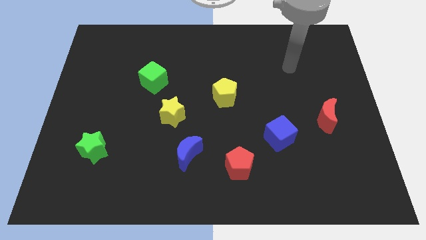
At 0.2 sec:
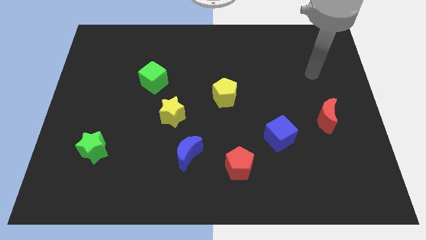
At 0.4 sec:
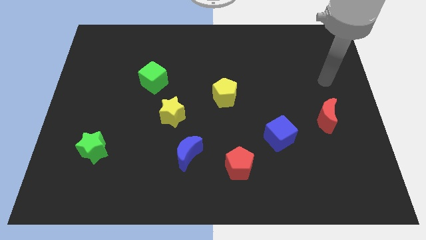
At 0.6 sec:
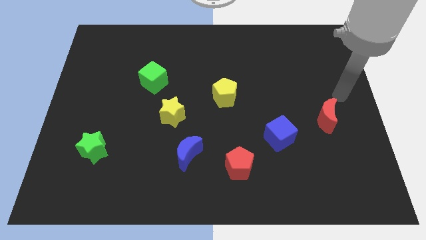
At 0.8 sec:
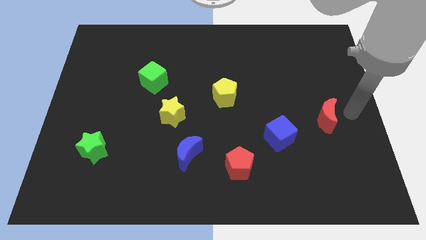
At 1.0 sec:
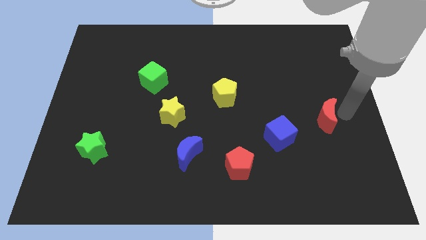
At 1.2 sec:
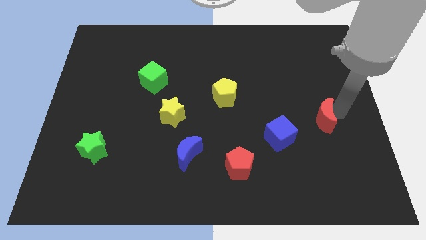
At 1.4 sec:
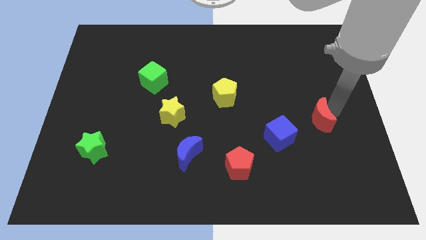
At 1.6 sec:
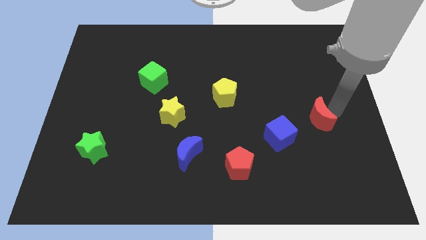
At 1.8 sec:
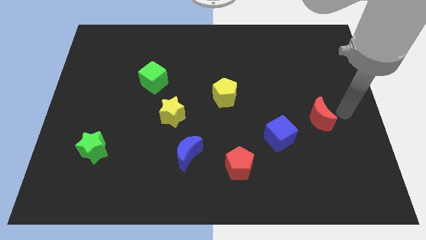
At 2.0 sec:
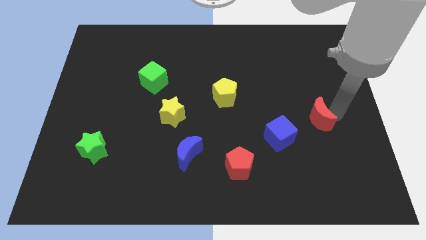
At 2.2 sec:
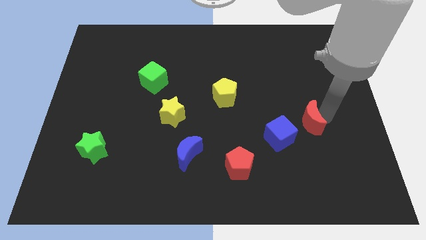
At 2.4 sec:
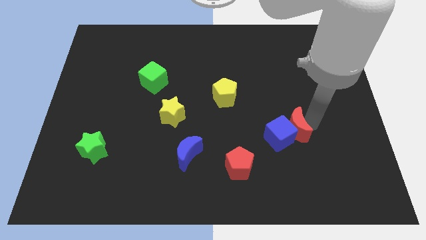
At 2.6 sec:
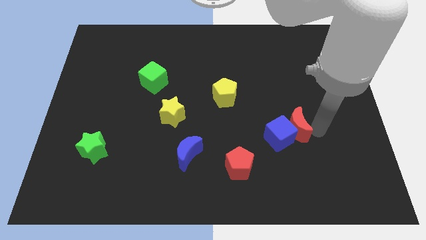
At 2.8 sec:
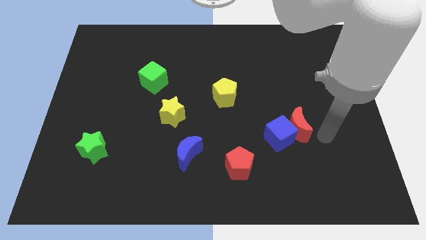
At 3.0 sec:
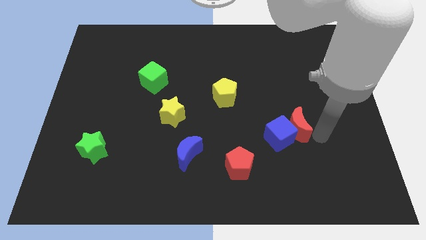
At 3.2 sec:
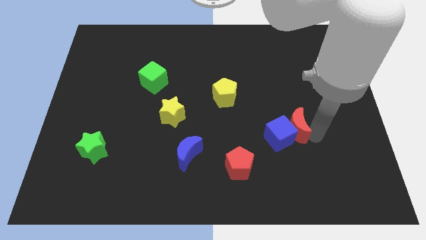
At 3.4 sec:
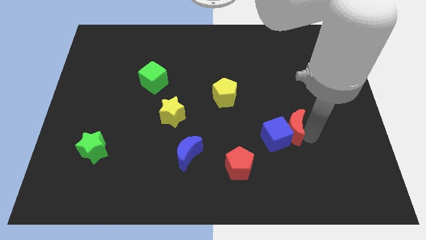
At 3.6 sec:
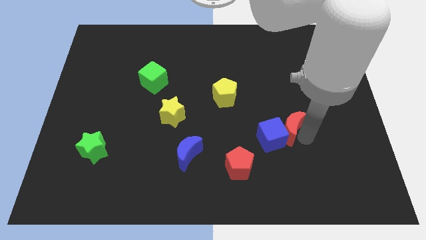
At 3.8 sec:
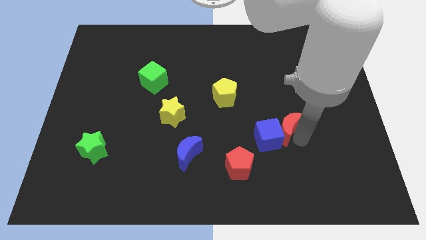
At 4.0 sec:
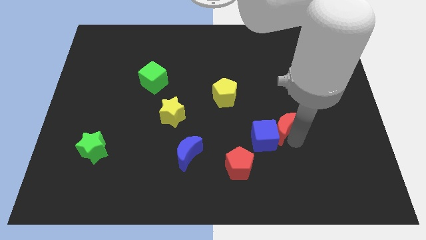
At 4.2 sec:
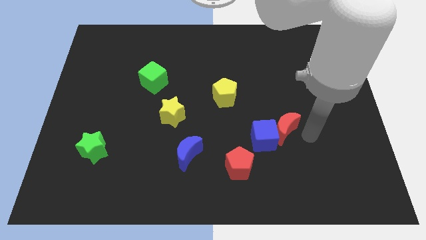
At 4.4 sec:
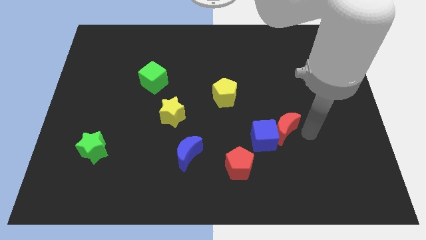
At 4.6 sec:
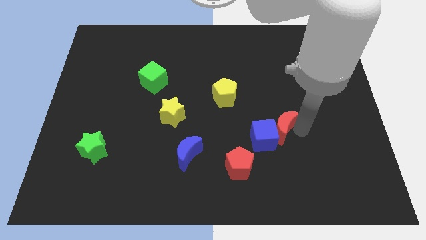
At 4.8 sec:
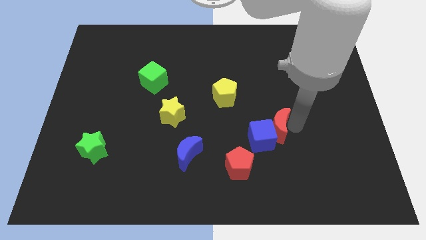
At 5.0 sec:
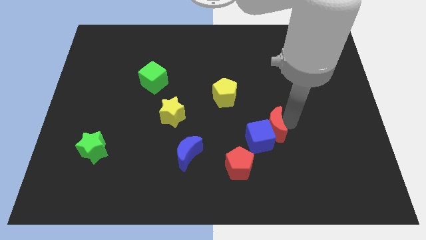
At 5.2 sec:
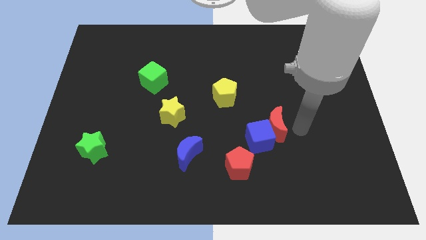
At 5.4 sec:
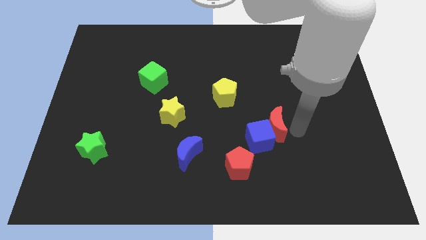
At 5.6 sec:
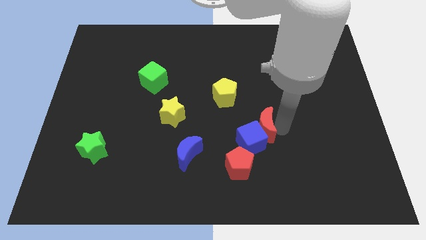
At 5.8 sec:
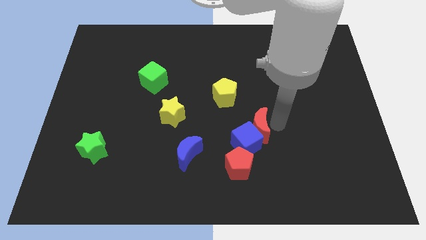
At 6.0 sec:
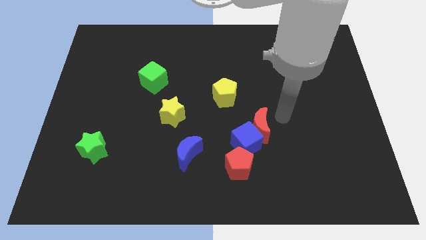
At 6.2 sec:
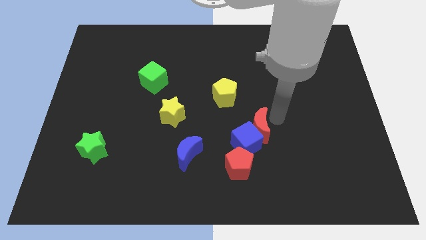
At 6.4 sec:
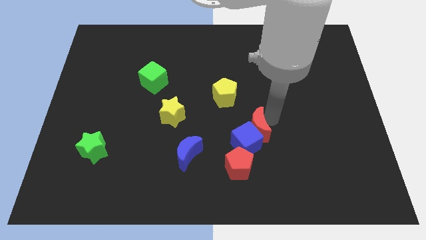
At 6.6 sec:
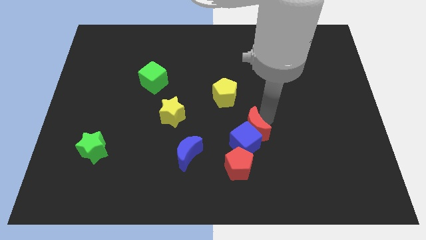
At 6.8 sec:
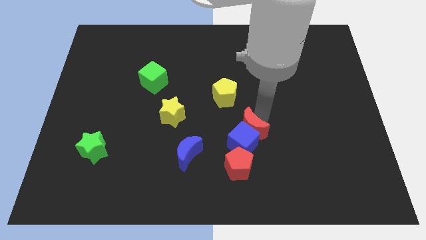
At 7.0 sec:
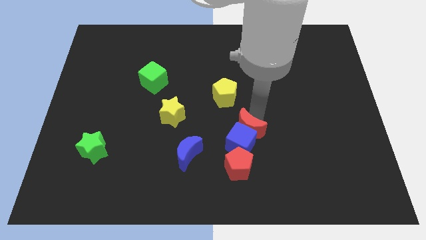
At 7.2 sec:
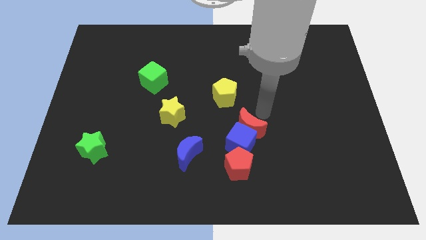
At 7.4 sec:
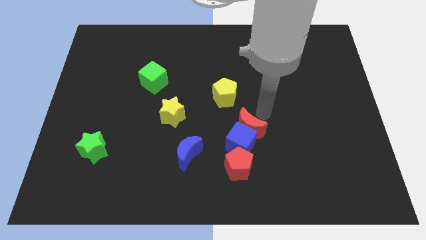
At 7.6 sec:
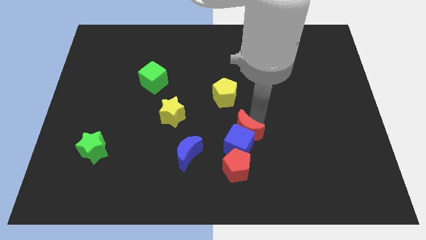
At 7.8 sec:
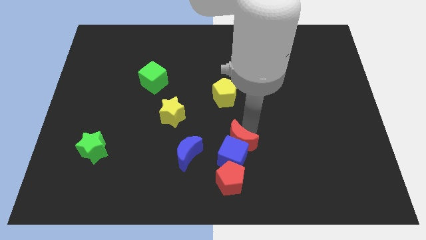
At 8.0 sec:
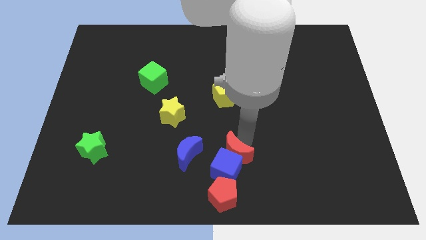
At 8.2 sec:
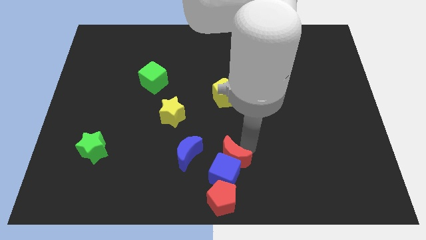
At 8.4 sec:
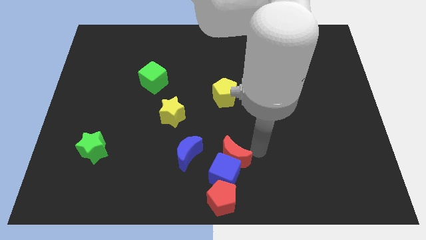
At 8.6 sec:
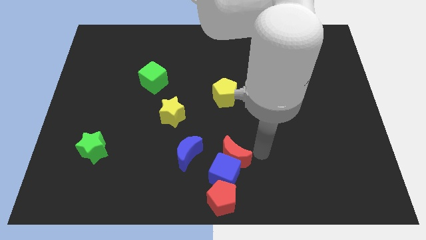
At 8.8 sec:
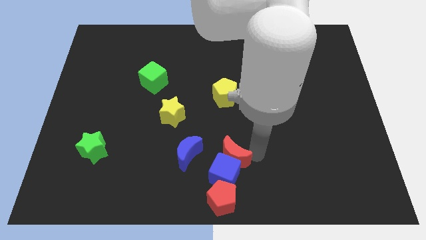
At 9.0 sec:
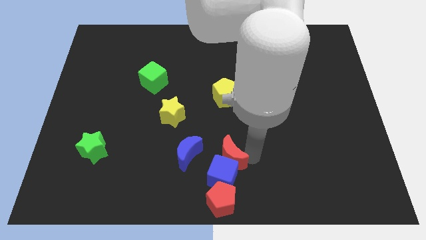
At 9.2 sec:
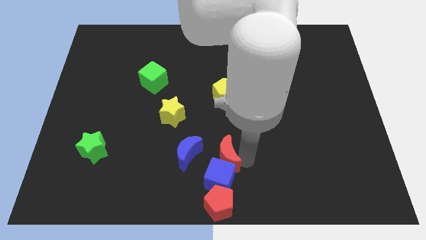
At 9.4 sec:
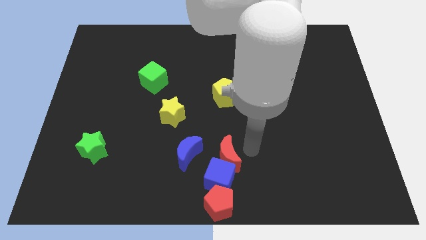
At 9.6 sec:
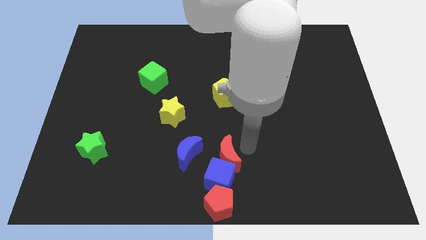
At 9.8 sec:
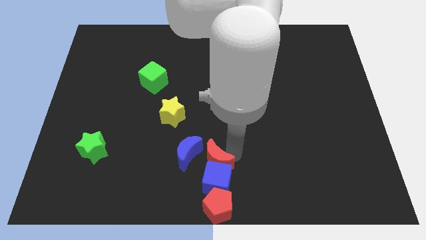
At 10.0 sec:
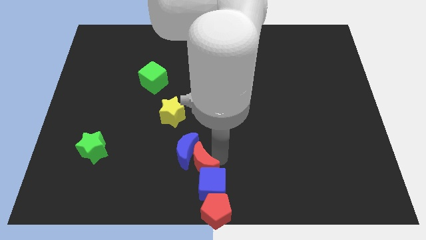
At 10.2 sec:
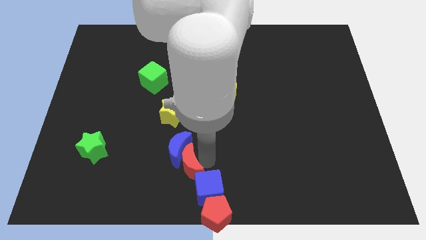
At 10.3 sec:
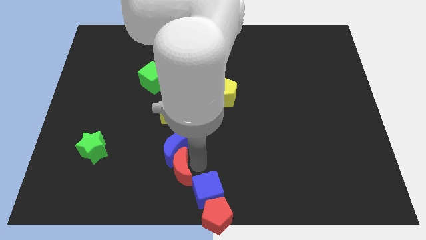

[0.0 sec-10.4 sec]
push the red moon to the bottom left side of the blue moon

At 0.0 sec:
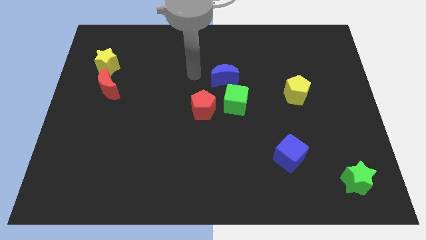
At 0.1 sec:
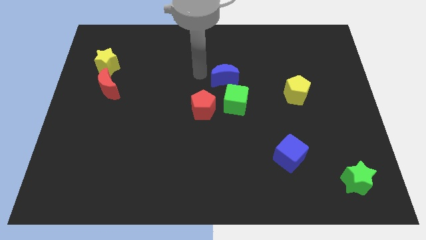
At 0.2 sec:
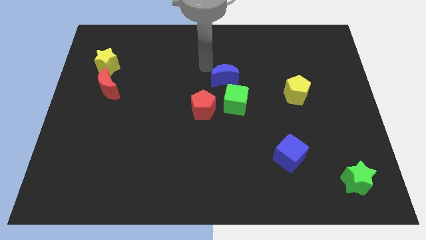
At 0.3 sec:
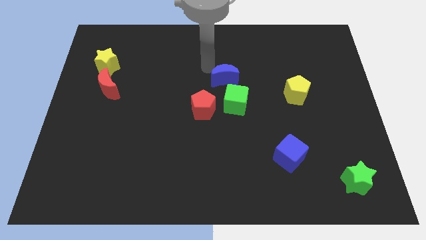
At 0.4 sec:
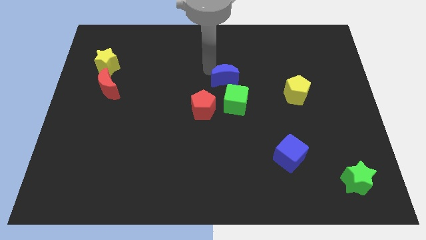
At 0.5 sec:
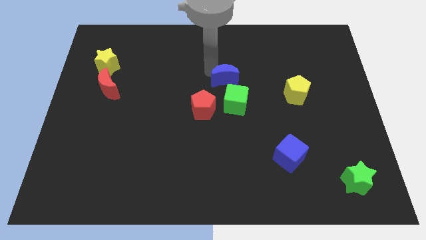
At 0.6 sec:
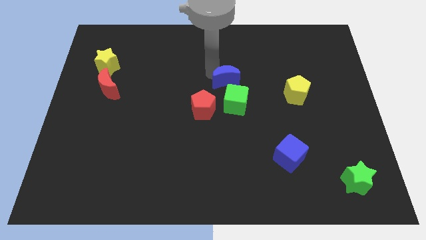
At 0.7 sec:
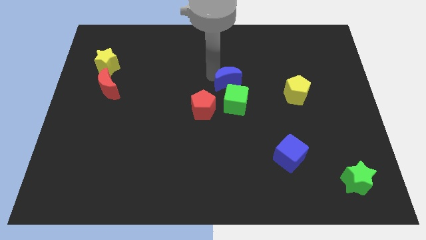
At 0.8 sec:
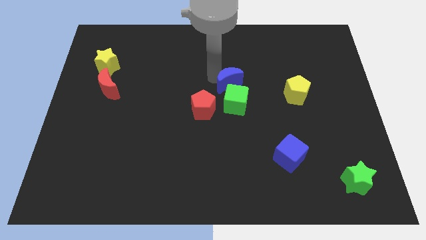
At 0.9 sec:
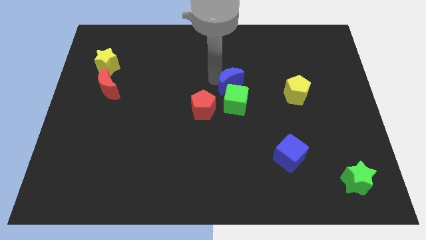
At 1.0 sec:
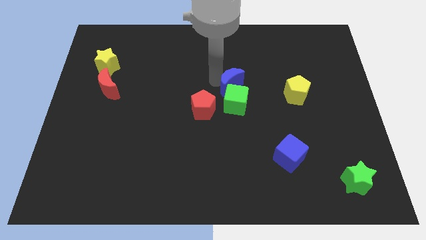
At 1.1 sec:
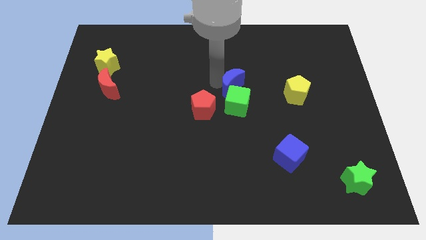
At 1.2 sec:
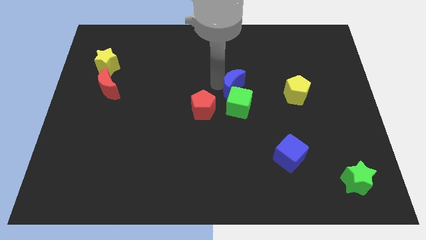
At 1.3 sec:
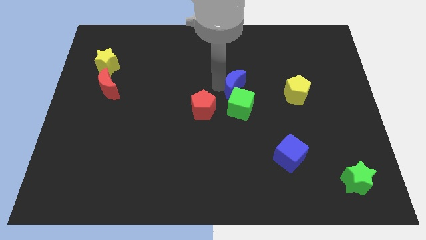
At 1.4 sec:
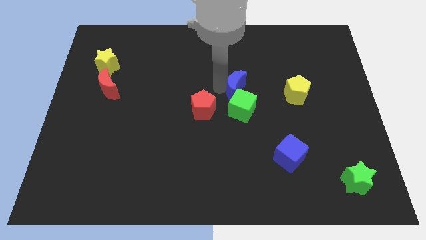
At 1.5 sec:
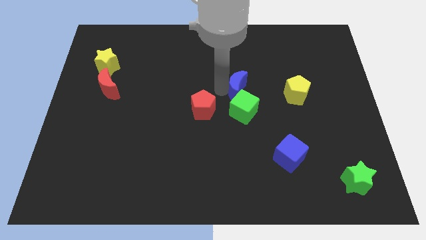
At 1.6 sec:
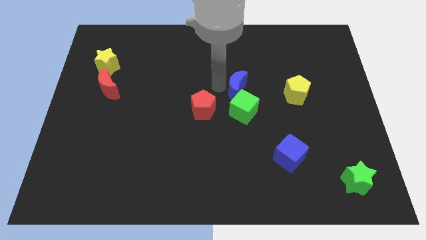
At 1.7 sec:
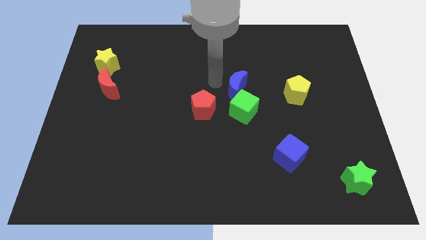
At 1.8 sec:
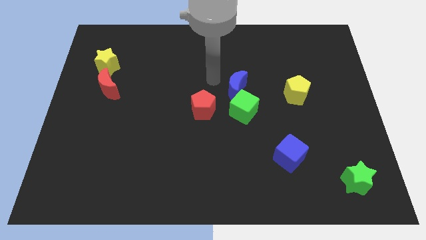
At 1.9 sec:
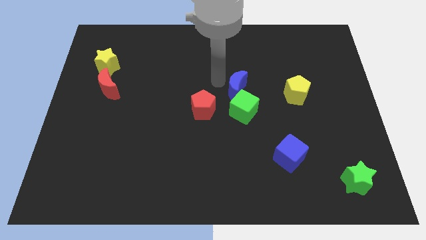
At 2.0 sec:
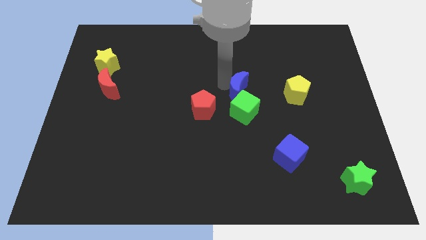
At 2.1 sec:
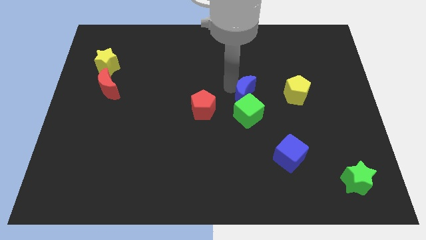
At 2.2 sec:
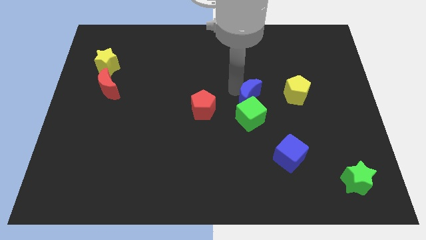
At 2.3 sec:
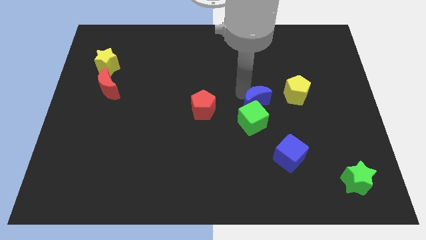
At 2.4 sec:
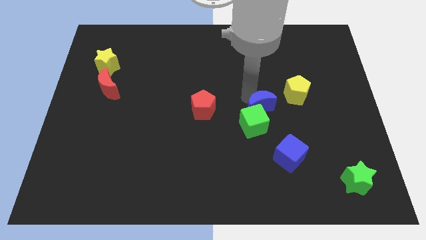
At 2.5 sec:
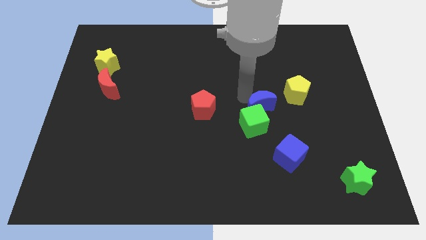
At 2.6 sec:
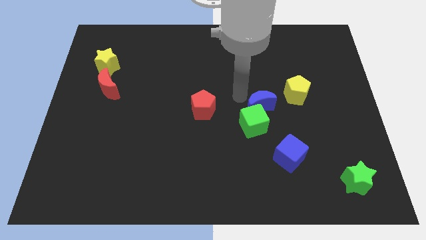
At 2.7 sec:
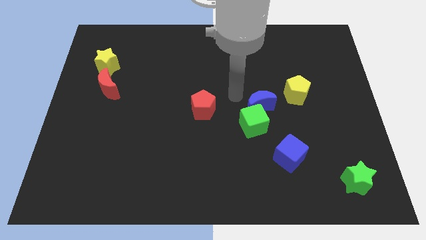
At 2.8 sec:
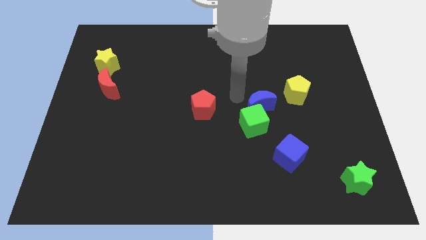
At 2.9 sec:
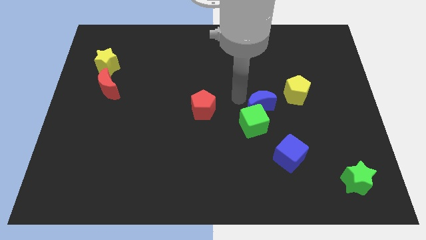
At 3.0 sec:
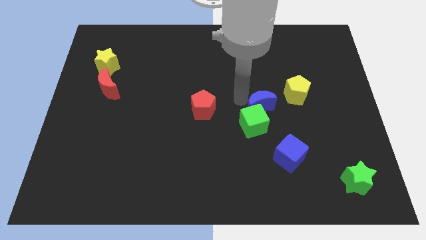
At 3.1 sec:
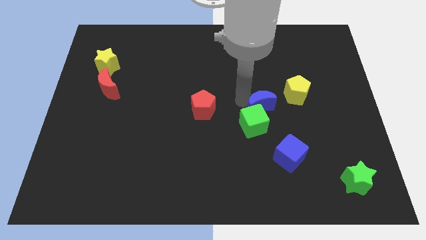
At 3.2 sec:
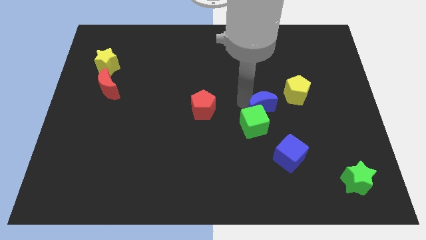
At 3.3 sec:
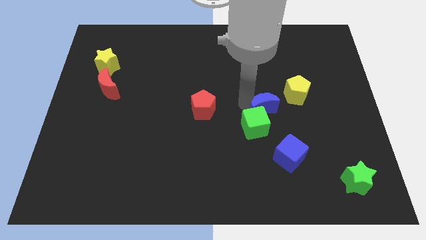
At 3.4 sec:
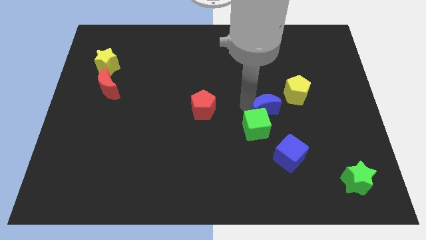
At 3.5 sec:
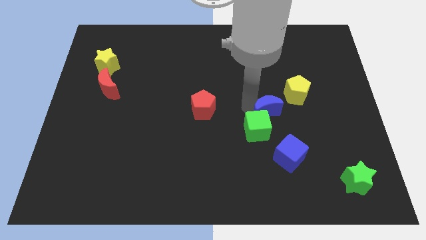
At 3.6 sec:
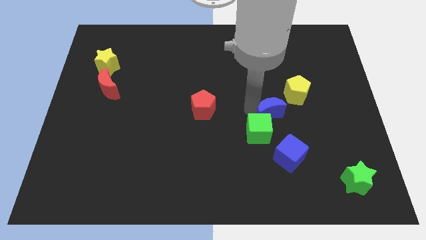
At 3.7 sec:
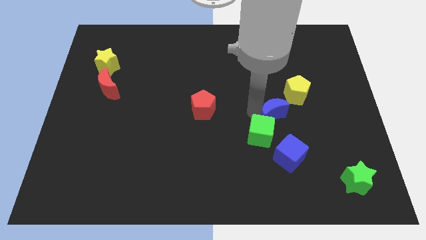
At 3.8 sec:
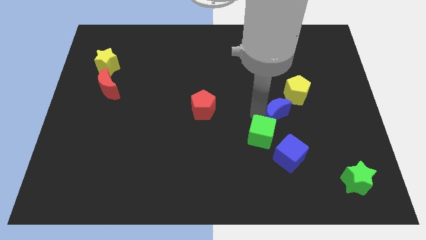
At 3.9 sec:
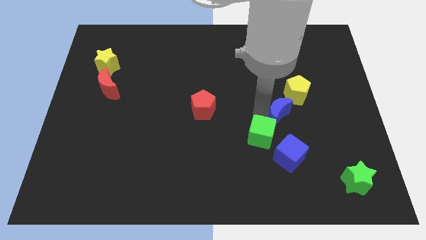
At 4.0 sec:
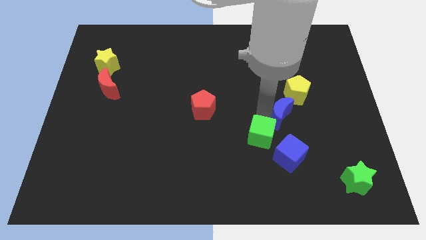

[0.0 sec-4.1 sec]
put the blue moon below the yellow pentagon
